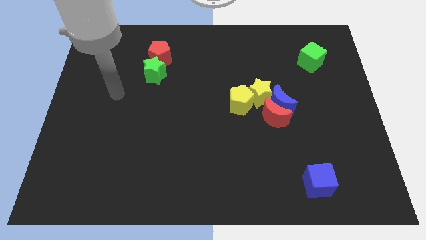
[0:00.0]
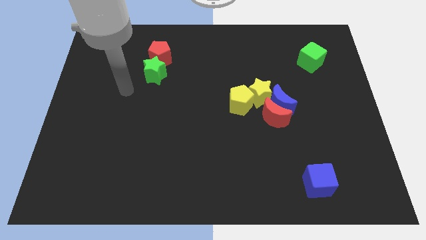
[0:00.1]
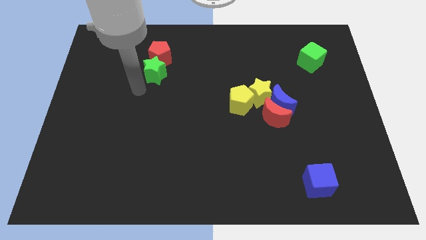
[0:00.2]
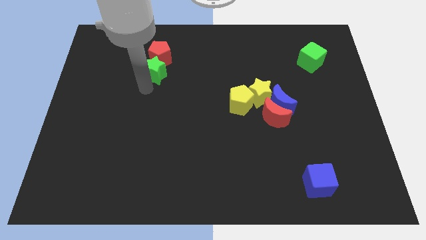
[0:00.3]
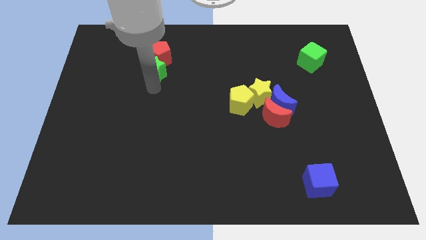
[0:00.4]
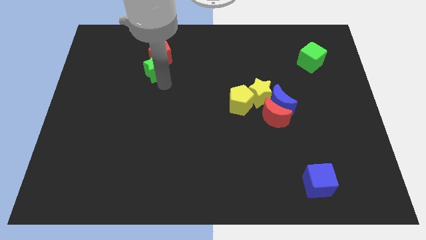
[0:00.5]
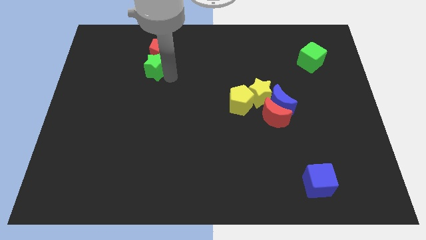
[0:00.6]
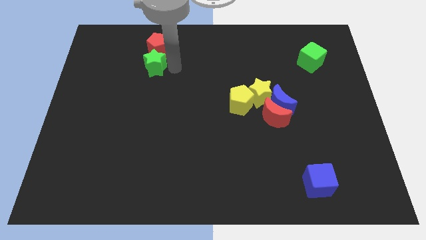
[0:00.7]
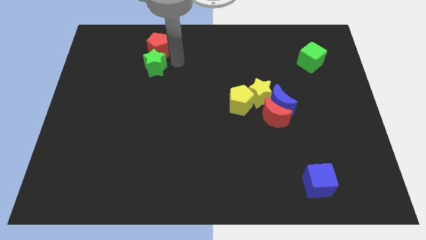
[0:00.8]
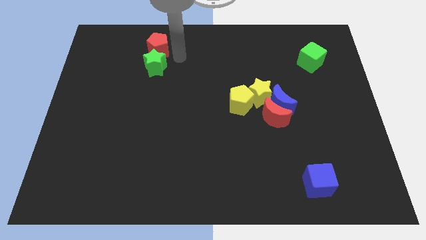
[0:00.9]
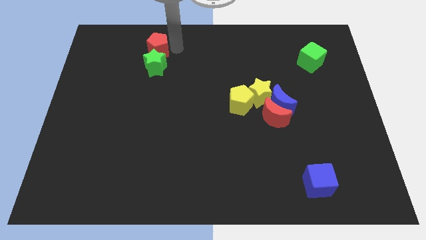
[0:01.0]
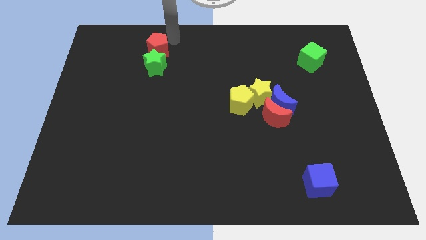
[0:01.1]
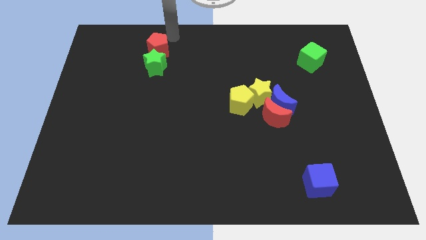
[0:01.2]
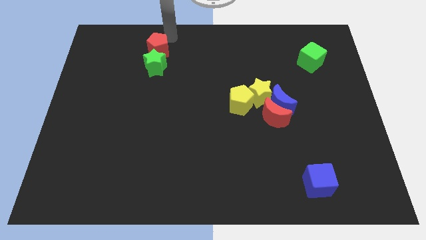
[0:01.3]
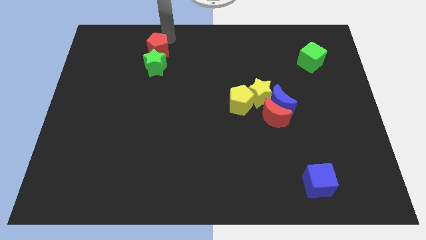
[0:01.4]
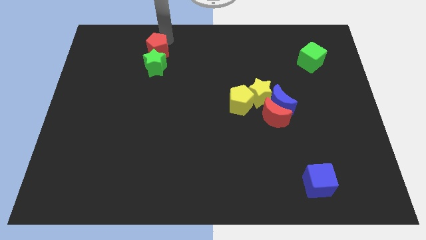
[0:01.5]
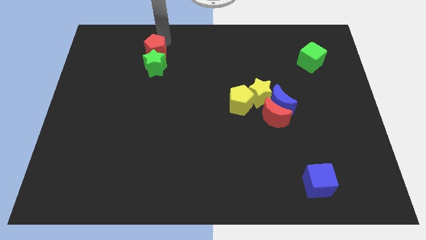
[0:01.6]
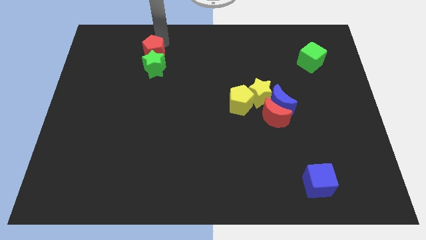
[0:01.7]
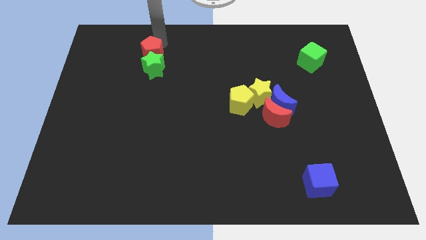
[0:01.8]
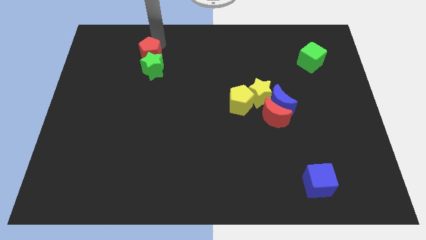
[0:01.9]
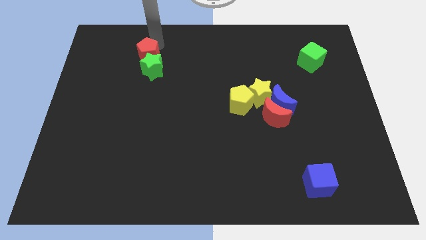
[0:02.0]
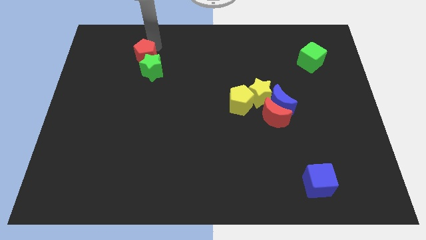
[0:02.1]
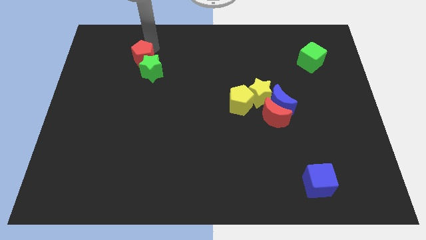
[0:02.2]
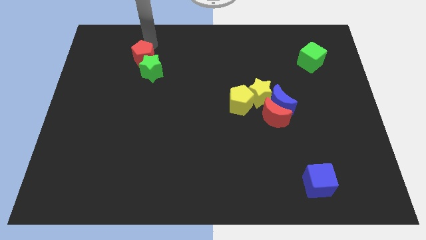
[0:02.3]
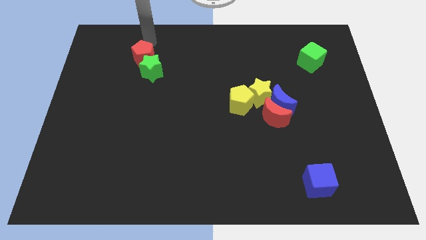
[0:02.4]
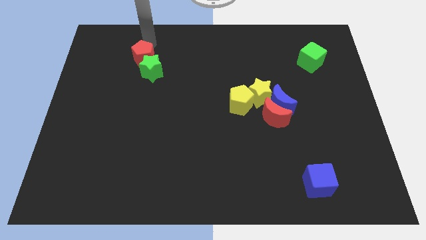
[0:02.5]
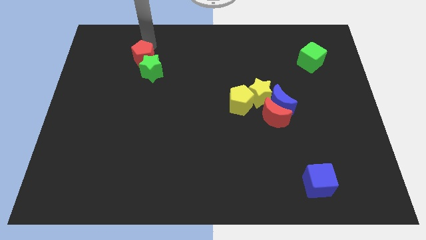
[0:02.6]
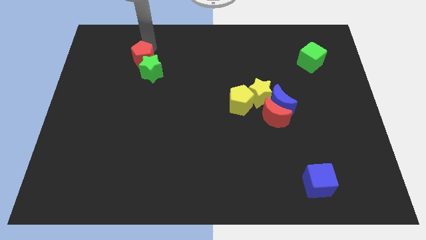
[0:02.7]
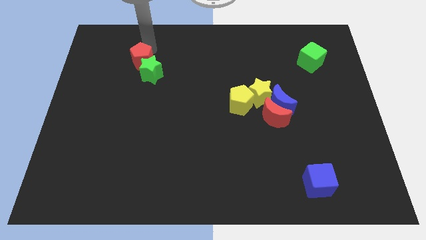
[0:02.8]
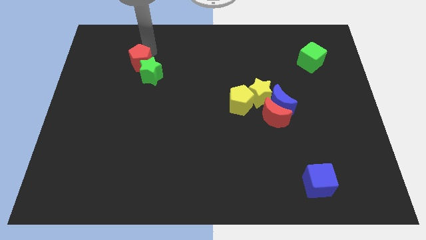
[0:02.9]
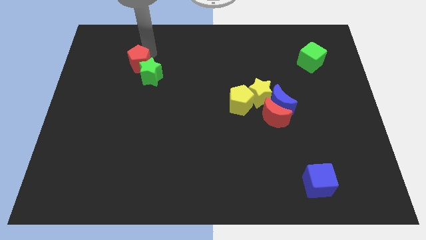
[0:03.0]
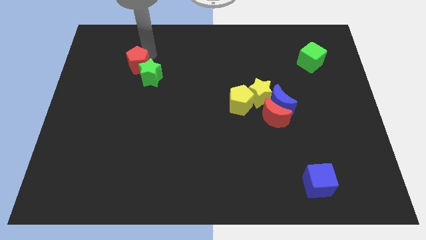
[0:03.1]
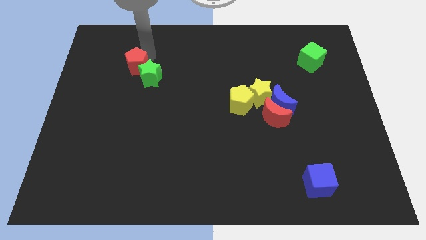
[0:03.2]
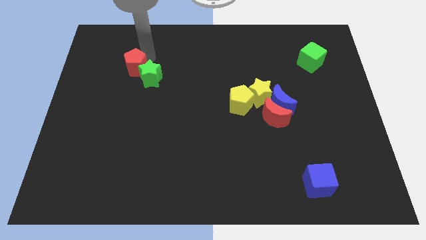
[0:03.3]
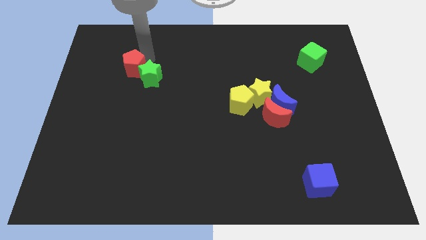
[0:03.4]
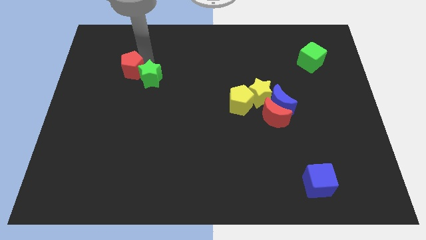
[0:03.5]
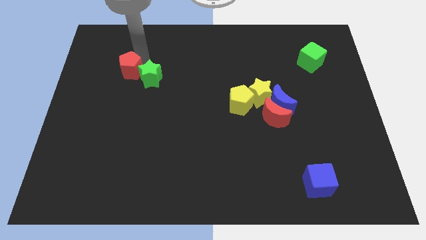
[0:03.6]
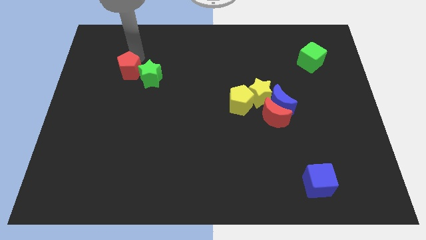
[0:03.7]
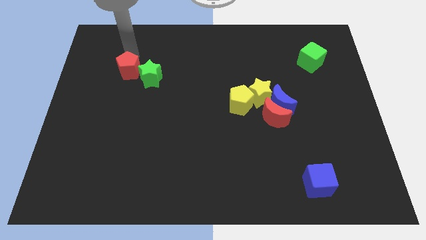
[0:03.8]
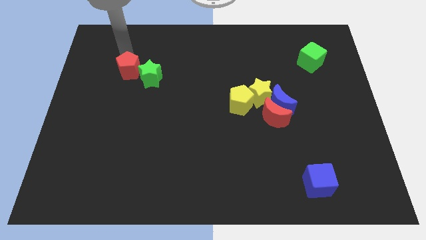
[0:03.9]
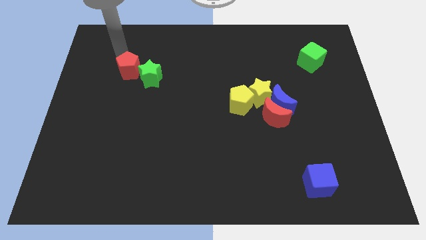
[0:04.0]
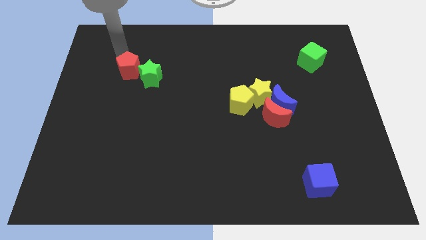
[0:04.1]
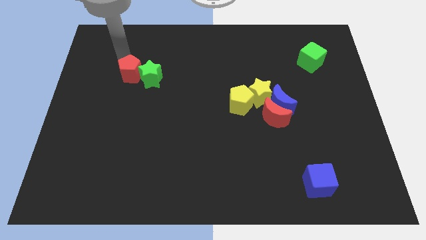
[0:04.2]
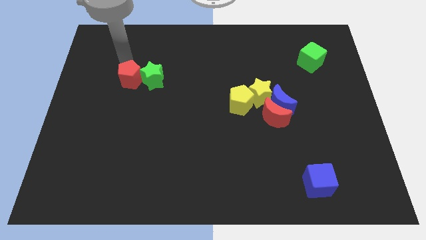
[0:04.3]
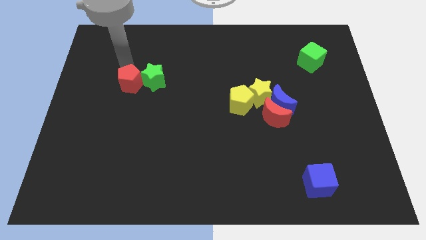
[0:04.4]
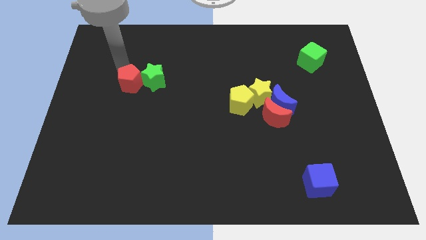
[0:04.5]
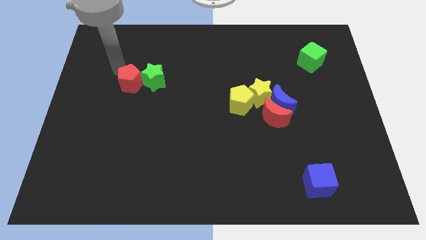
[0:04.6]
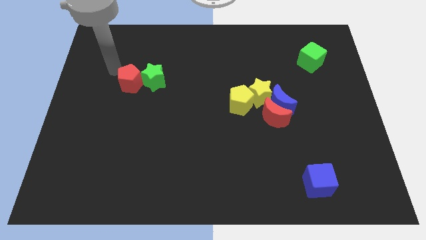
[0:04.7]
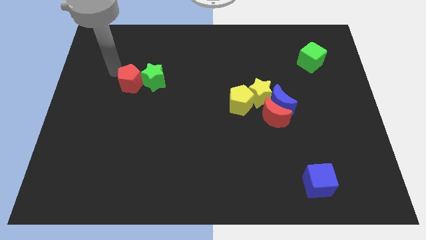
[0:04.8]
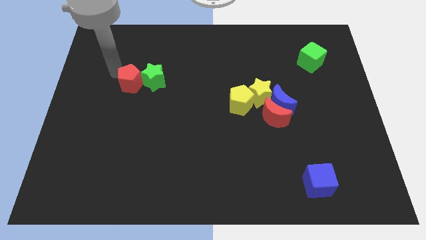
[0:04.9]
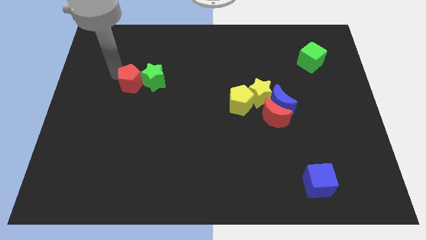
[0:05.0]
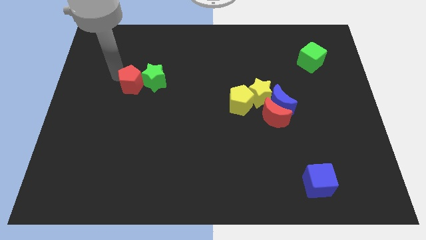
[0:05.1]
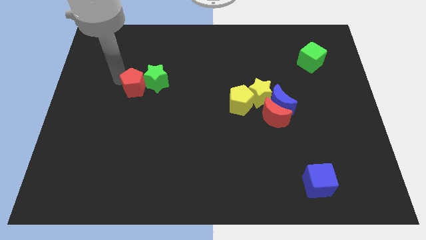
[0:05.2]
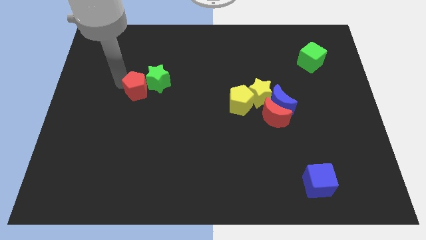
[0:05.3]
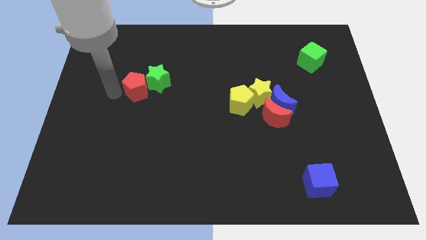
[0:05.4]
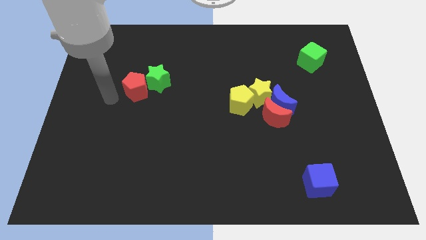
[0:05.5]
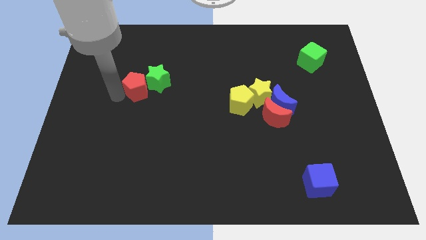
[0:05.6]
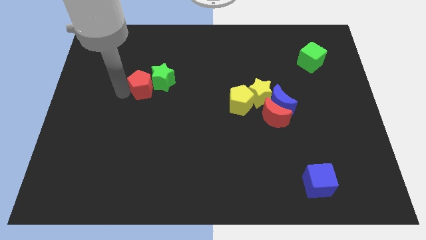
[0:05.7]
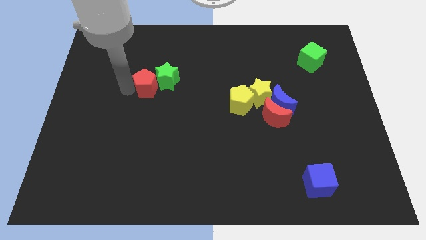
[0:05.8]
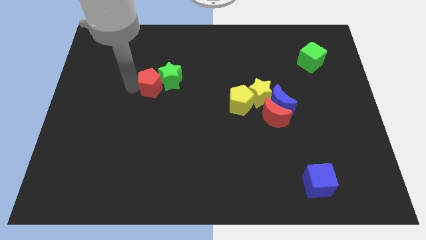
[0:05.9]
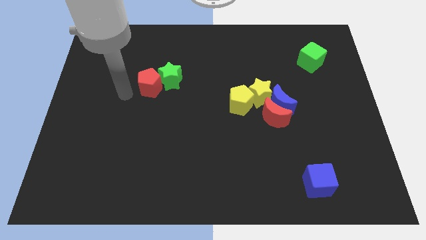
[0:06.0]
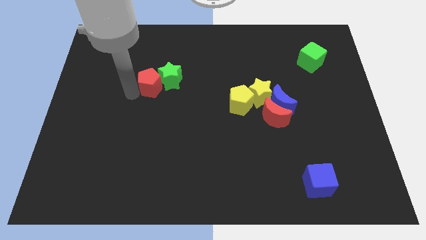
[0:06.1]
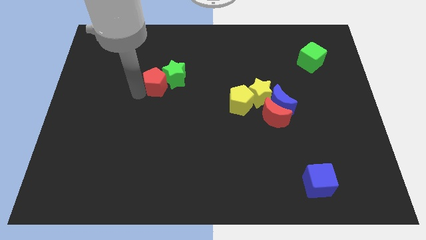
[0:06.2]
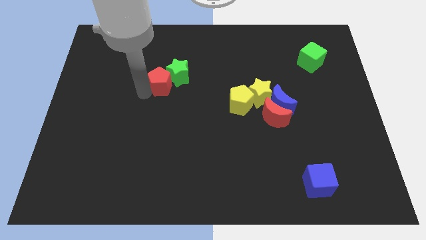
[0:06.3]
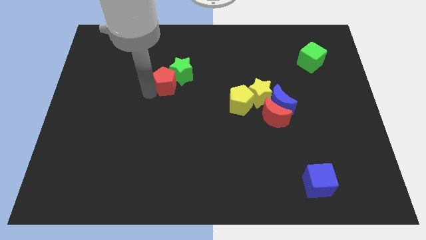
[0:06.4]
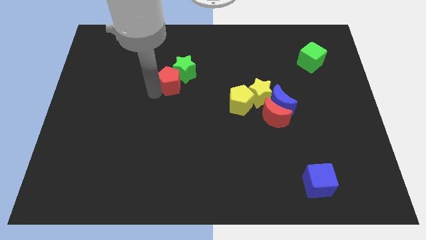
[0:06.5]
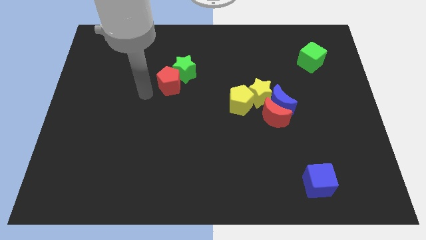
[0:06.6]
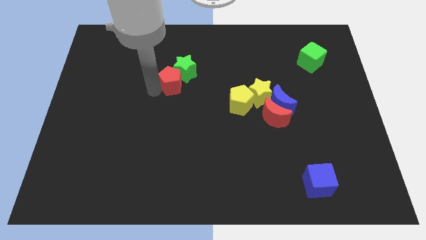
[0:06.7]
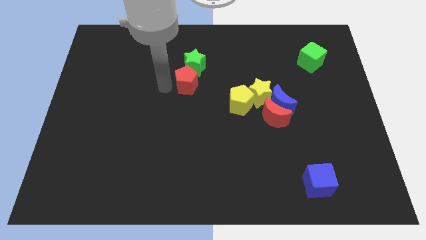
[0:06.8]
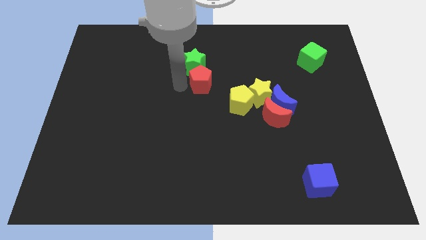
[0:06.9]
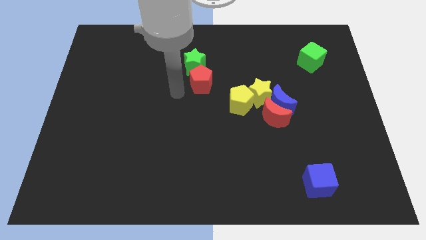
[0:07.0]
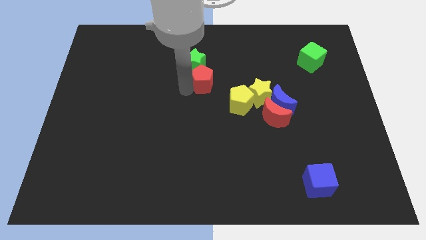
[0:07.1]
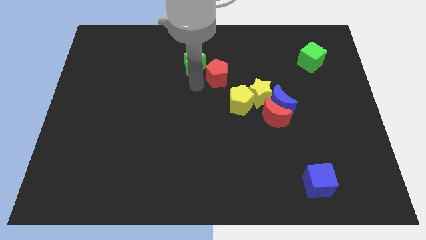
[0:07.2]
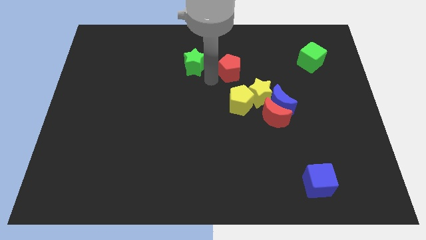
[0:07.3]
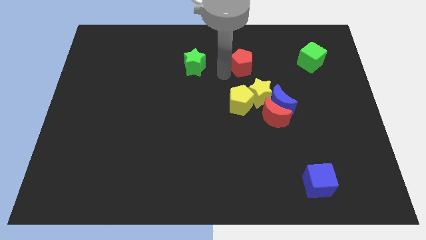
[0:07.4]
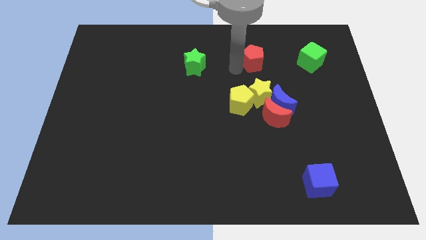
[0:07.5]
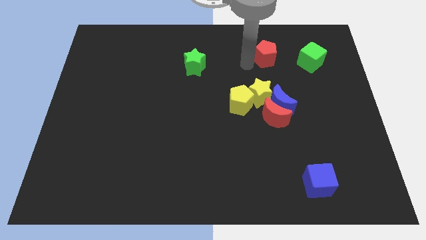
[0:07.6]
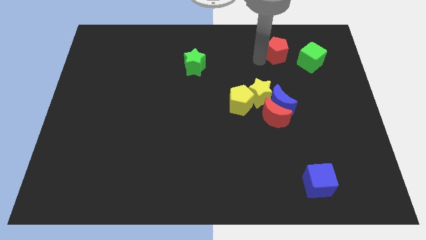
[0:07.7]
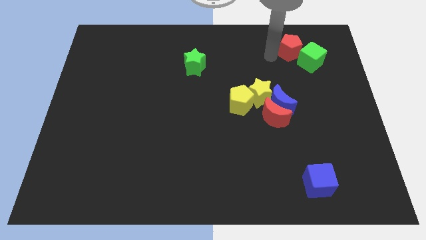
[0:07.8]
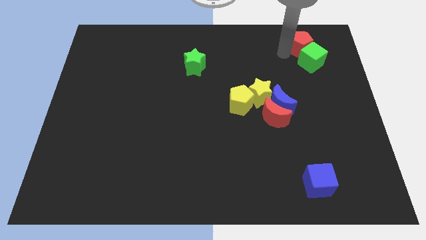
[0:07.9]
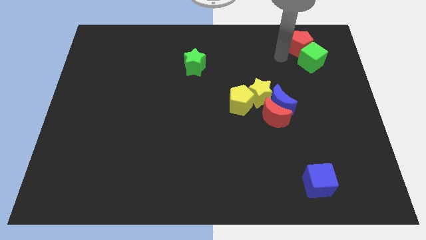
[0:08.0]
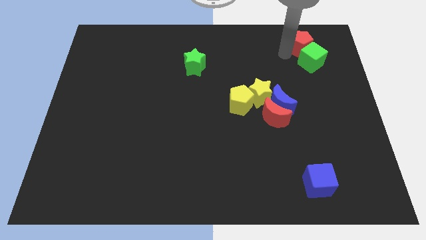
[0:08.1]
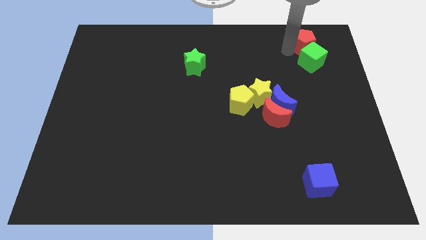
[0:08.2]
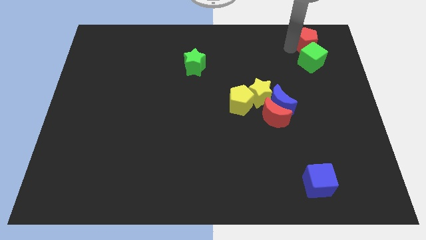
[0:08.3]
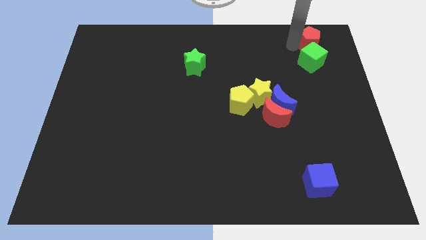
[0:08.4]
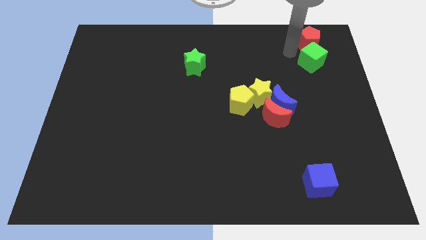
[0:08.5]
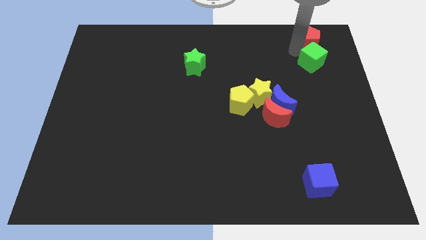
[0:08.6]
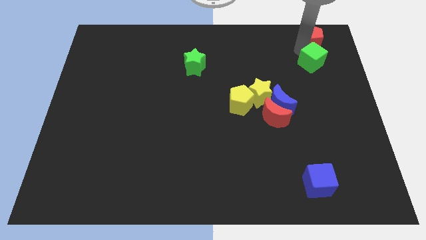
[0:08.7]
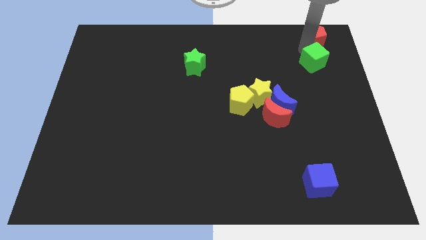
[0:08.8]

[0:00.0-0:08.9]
put the red pentagon to the top right corner
